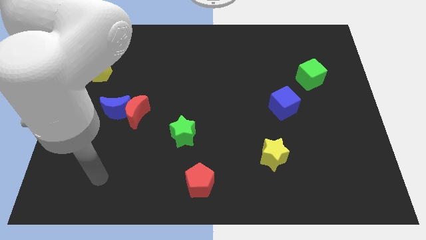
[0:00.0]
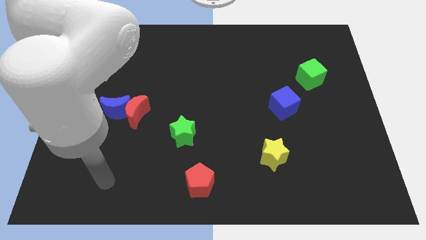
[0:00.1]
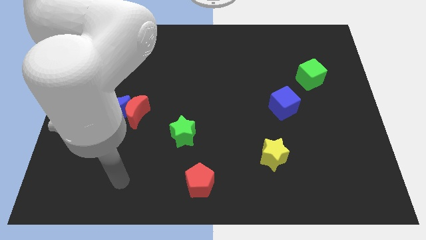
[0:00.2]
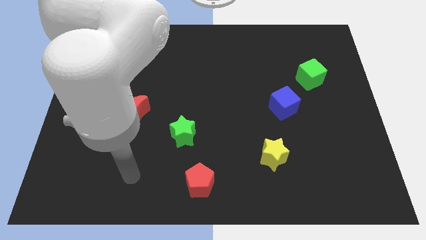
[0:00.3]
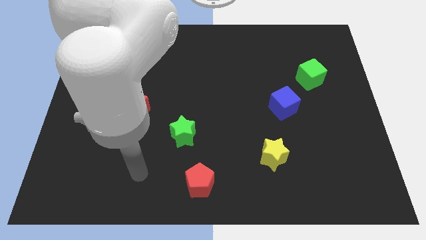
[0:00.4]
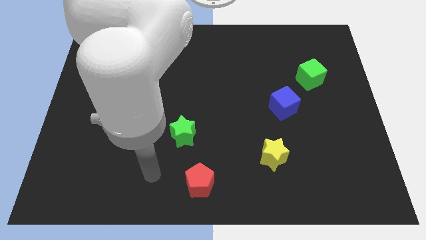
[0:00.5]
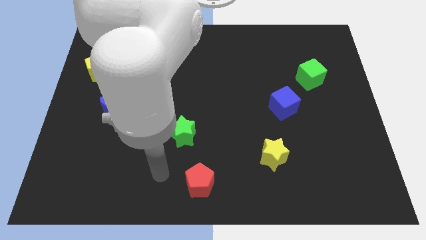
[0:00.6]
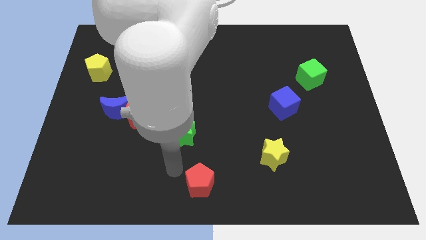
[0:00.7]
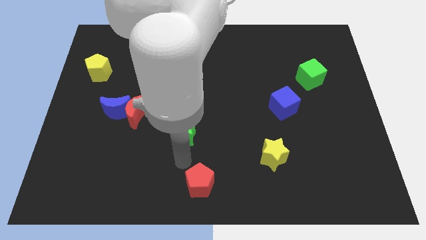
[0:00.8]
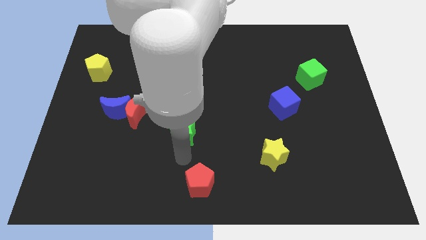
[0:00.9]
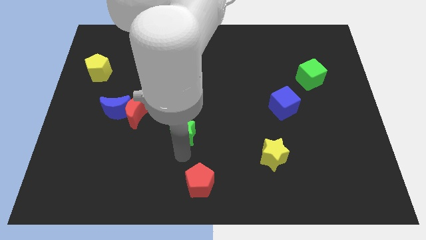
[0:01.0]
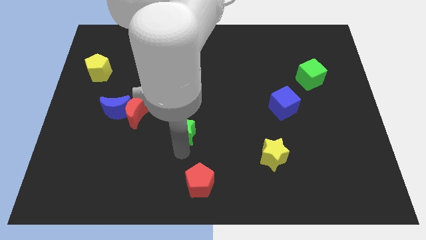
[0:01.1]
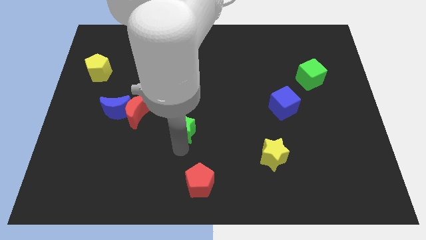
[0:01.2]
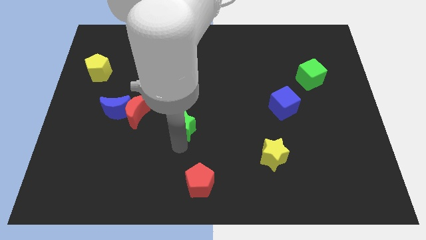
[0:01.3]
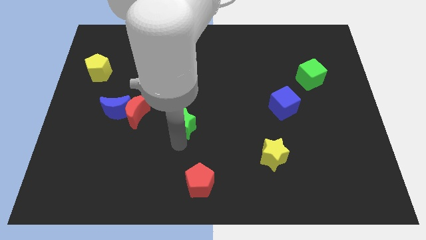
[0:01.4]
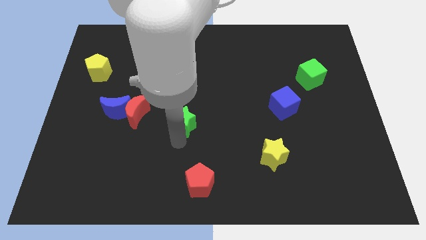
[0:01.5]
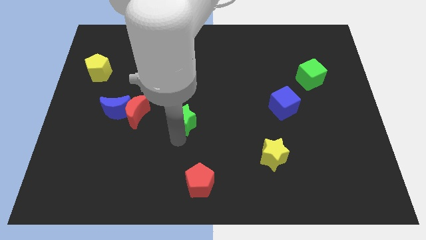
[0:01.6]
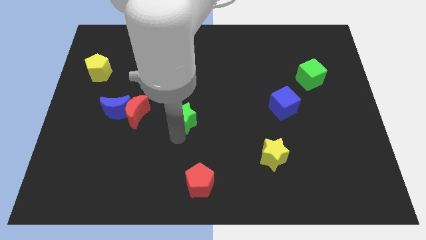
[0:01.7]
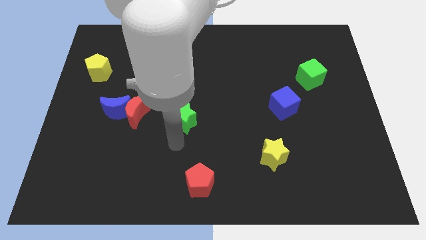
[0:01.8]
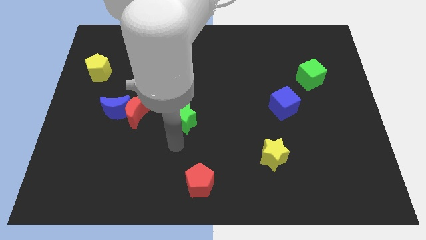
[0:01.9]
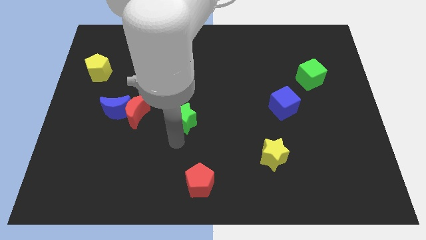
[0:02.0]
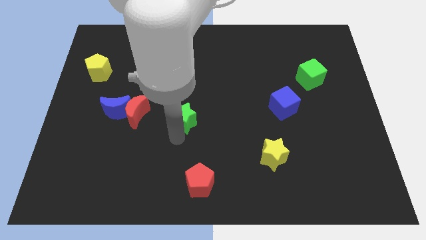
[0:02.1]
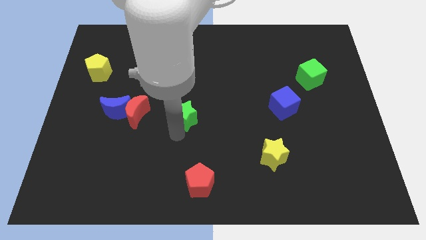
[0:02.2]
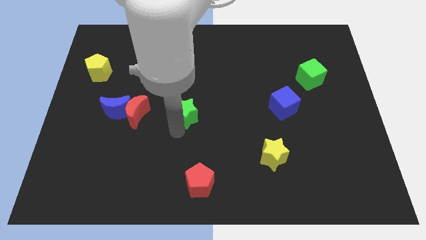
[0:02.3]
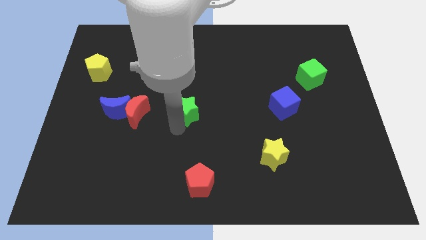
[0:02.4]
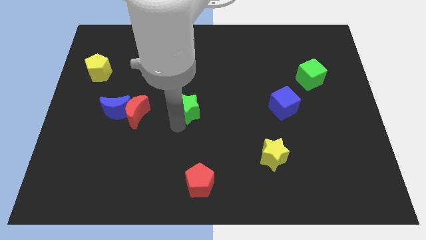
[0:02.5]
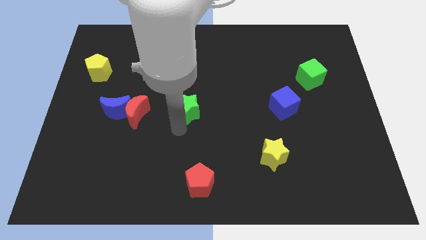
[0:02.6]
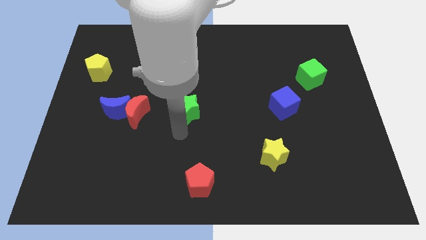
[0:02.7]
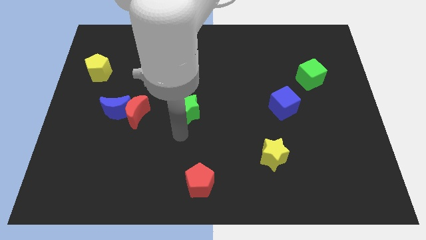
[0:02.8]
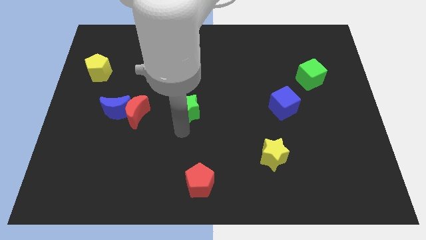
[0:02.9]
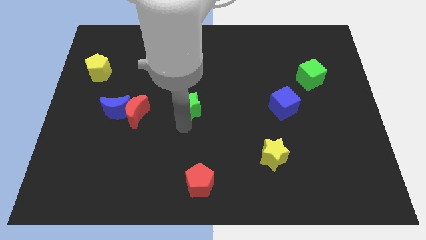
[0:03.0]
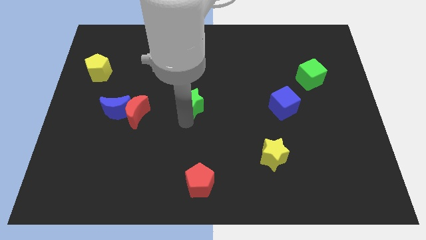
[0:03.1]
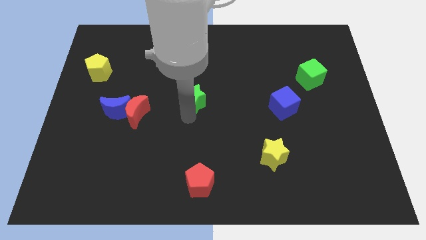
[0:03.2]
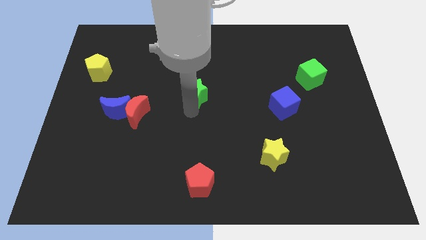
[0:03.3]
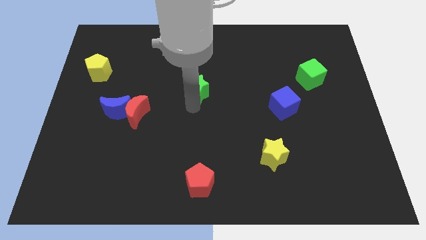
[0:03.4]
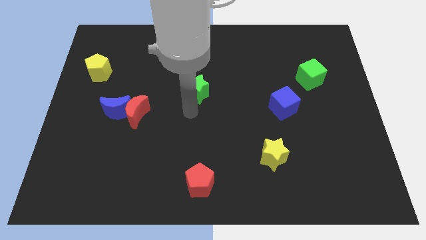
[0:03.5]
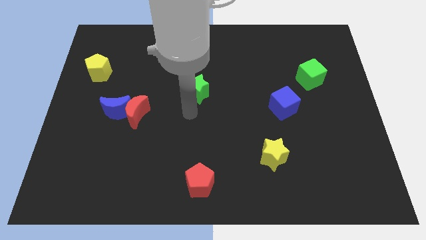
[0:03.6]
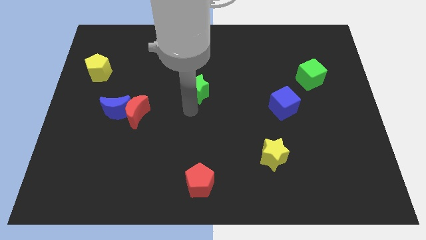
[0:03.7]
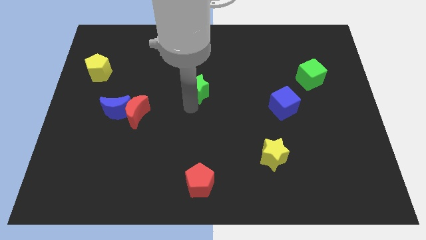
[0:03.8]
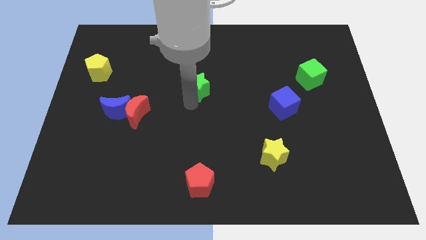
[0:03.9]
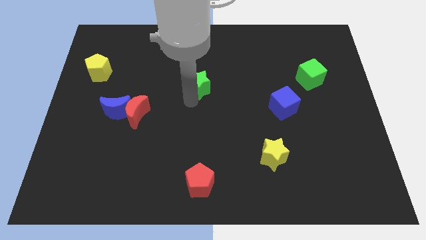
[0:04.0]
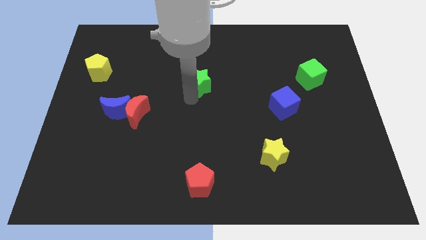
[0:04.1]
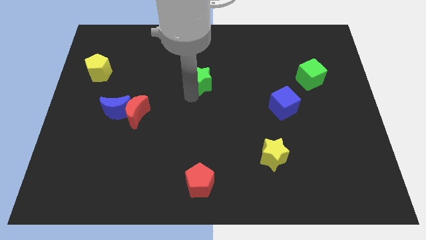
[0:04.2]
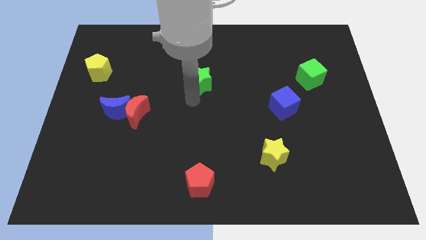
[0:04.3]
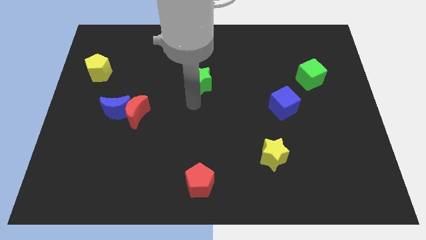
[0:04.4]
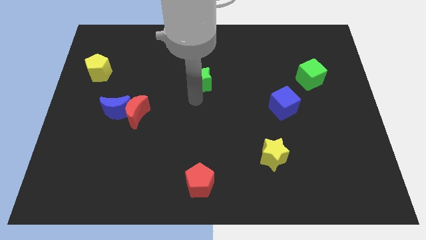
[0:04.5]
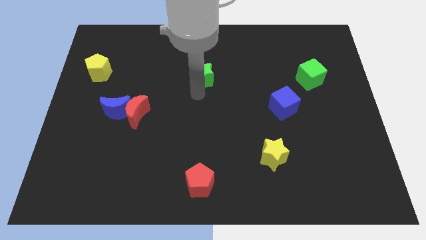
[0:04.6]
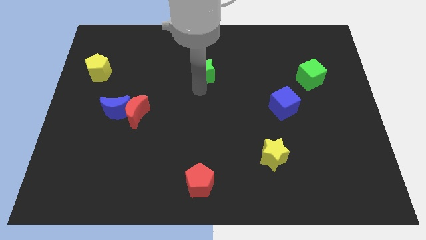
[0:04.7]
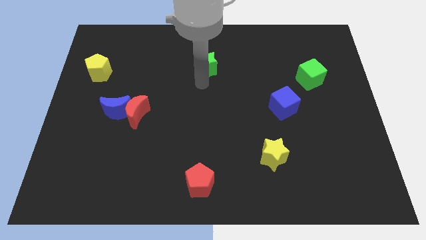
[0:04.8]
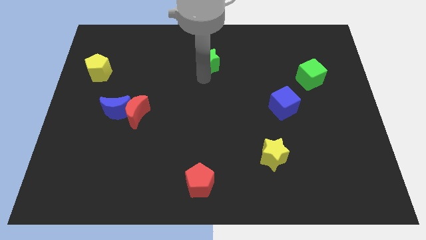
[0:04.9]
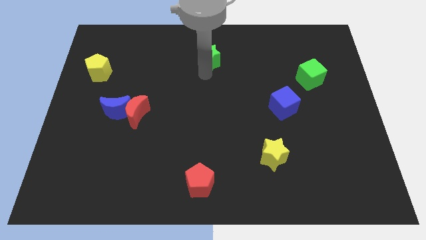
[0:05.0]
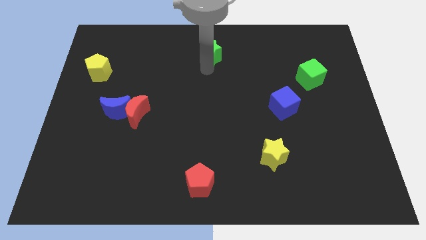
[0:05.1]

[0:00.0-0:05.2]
move the green star to the top side

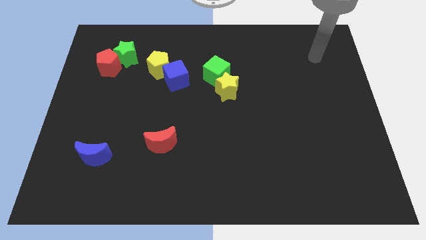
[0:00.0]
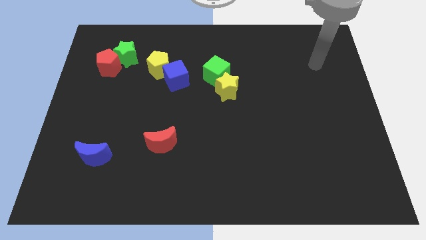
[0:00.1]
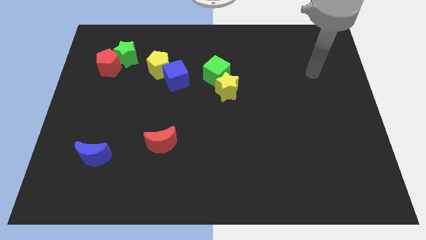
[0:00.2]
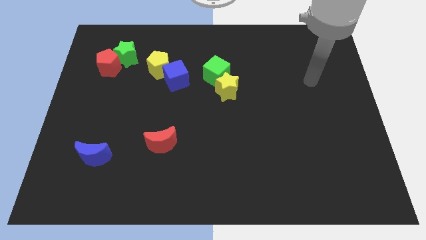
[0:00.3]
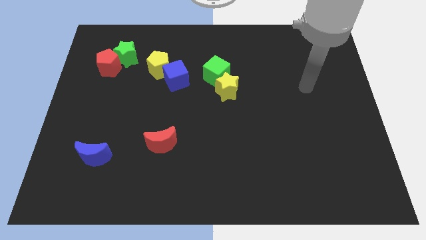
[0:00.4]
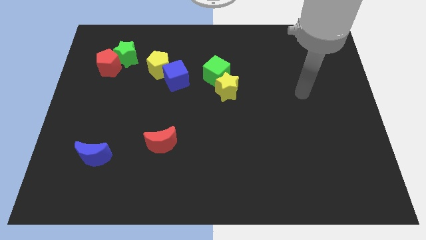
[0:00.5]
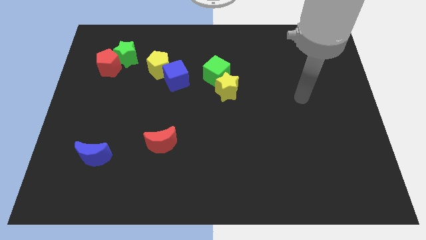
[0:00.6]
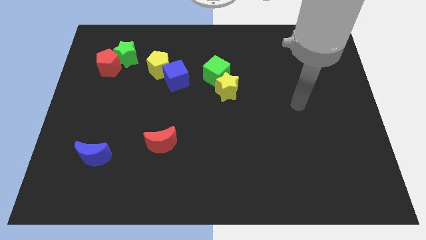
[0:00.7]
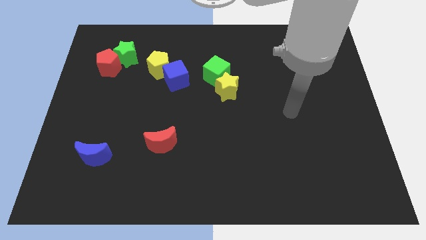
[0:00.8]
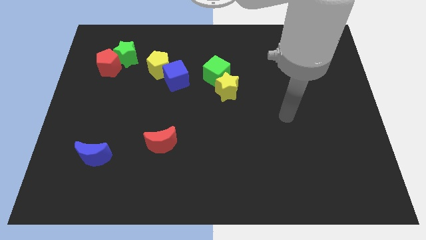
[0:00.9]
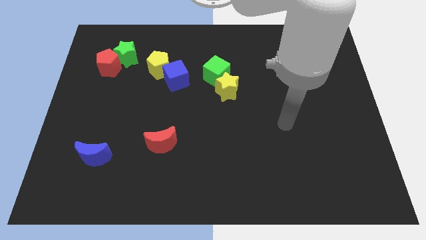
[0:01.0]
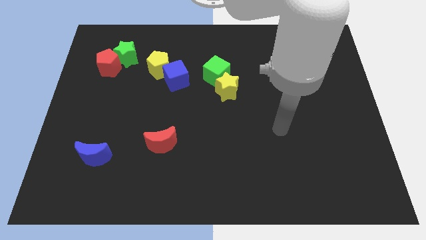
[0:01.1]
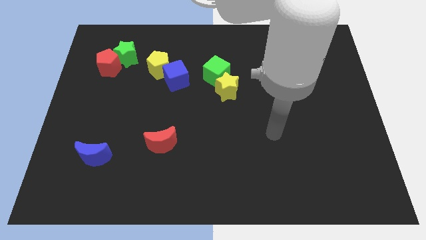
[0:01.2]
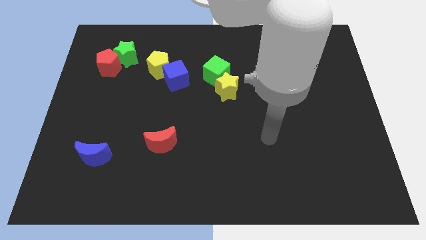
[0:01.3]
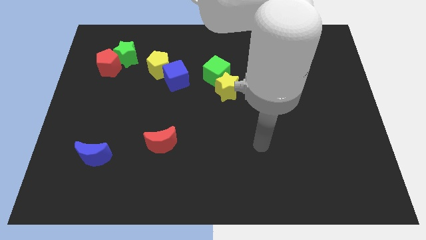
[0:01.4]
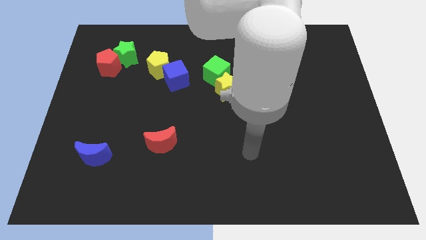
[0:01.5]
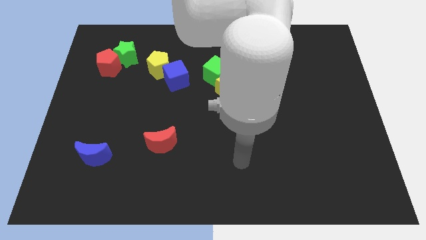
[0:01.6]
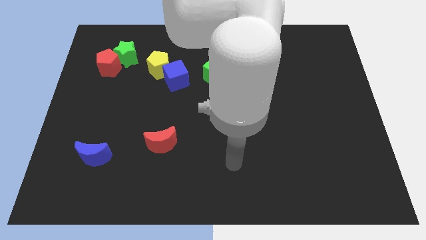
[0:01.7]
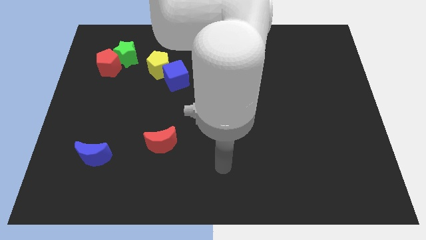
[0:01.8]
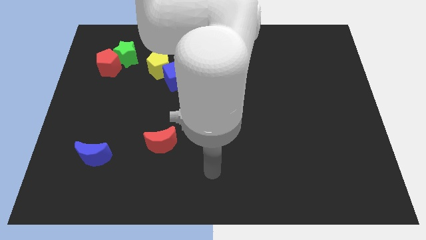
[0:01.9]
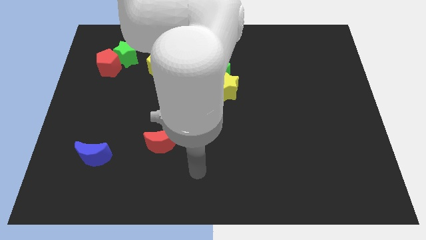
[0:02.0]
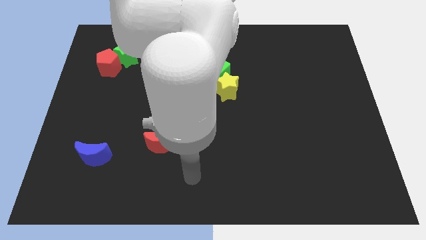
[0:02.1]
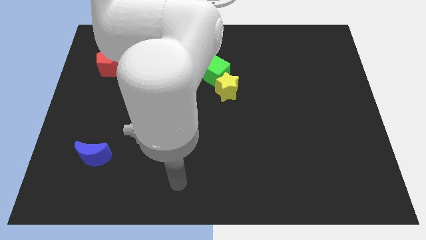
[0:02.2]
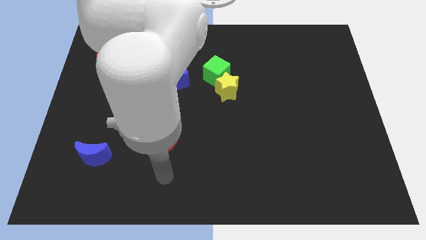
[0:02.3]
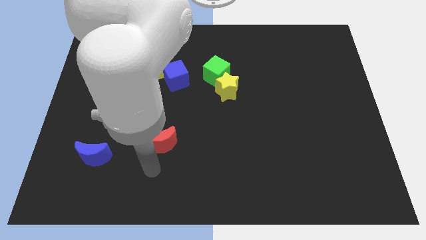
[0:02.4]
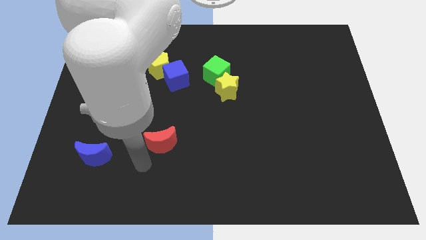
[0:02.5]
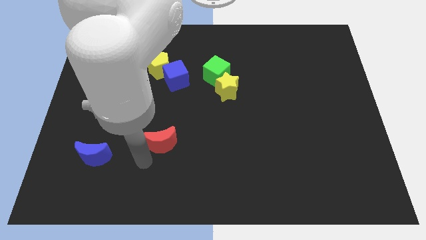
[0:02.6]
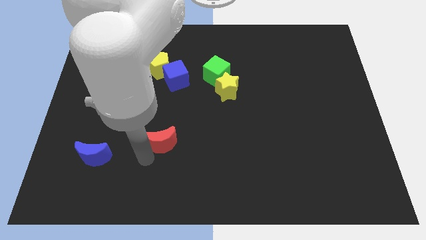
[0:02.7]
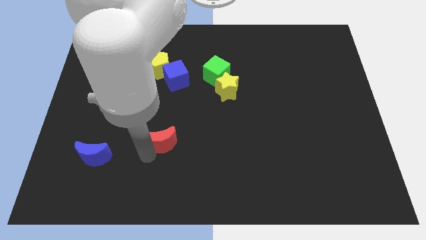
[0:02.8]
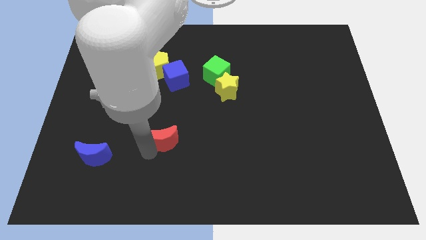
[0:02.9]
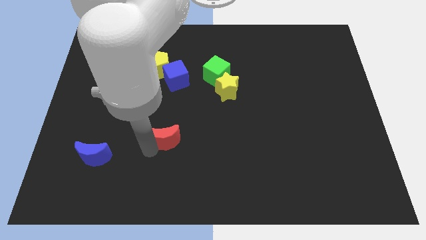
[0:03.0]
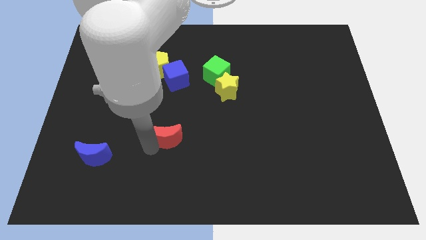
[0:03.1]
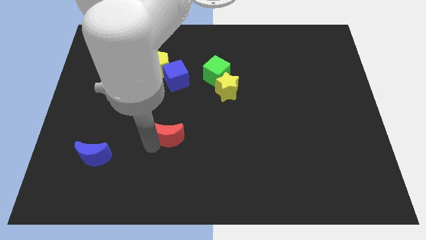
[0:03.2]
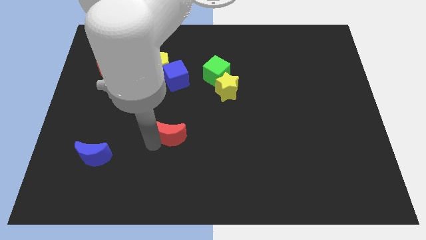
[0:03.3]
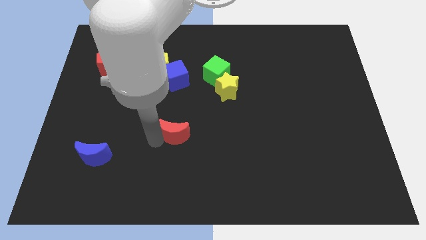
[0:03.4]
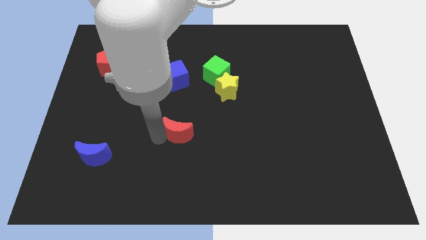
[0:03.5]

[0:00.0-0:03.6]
slide the red moon to the center
